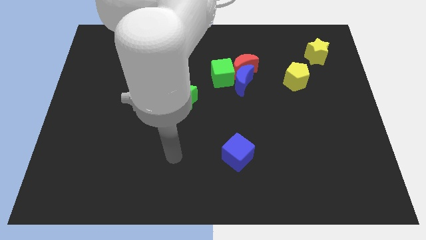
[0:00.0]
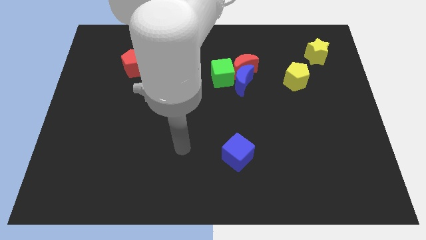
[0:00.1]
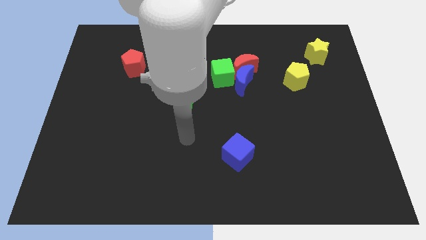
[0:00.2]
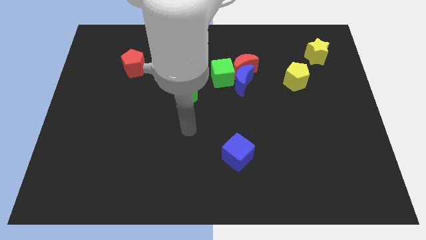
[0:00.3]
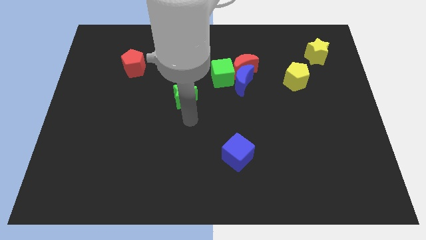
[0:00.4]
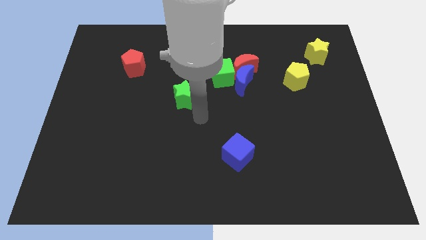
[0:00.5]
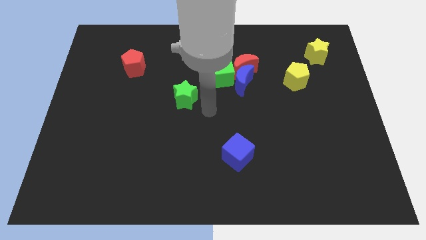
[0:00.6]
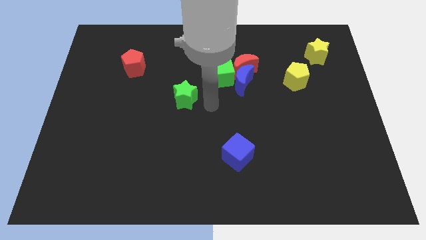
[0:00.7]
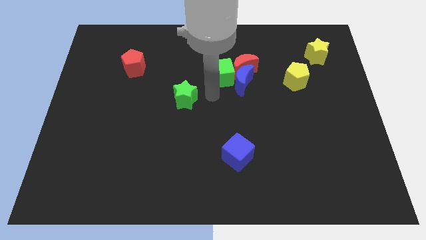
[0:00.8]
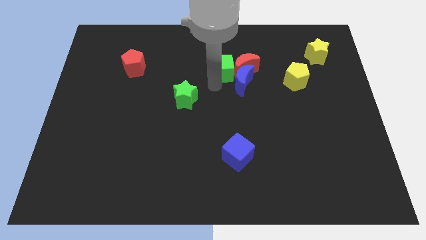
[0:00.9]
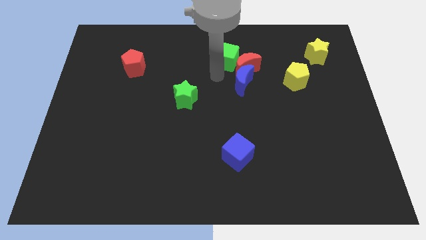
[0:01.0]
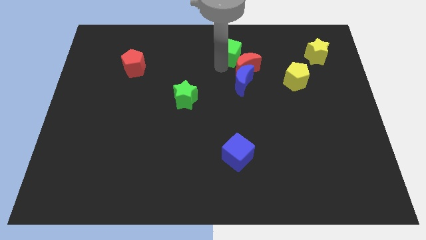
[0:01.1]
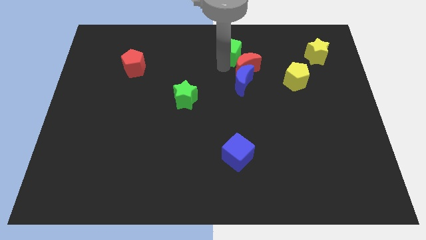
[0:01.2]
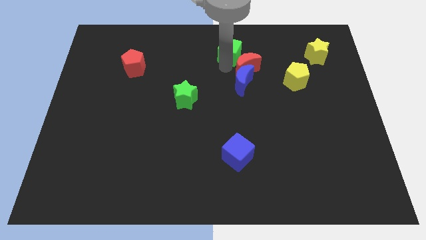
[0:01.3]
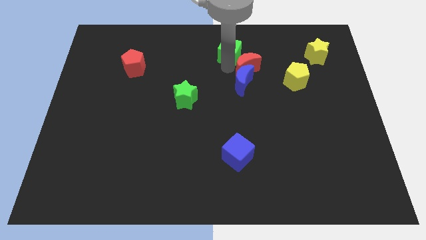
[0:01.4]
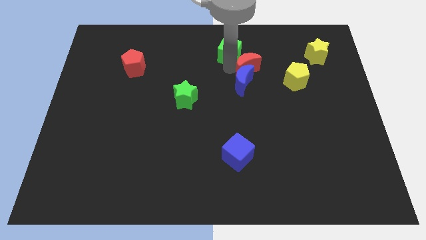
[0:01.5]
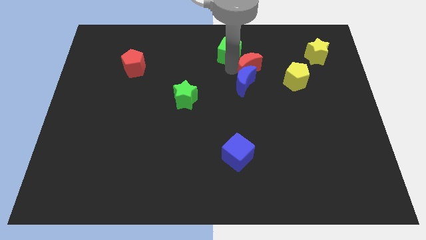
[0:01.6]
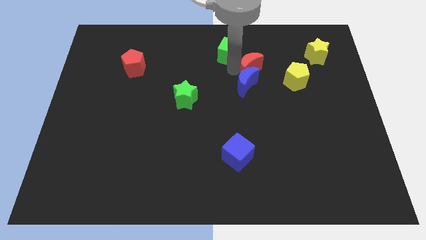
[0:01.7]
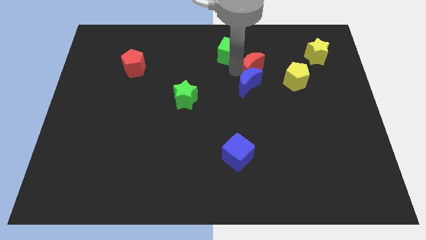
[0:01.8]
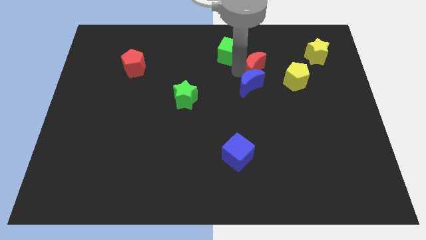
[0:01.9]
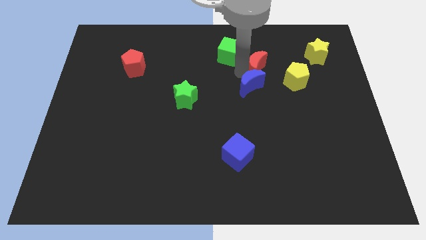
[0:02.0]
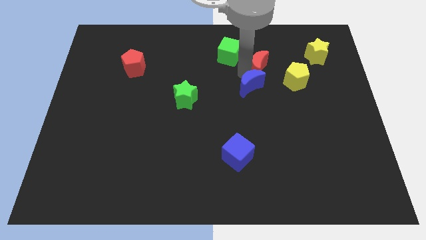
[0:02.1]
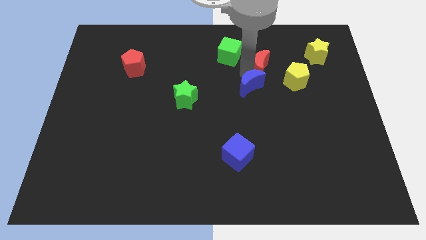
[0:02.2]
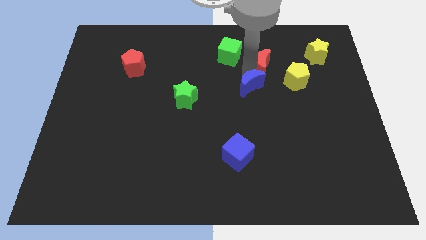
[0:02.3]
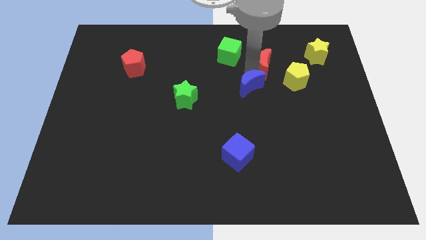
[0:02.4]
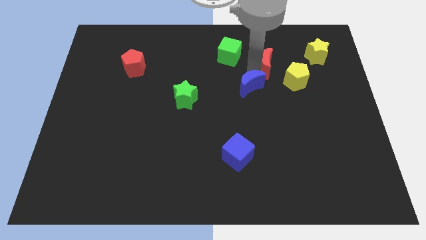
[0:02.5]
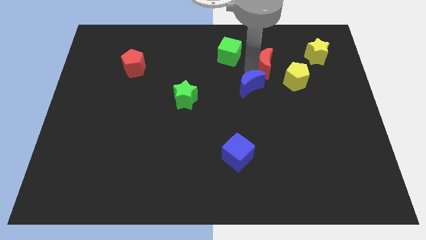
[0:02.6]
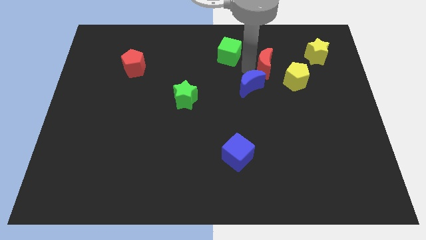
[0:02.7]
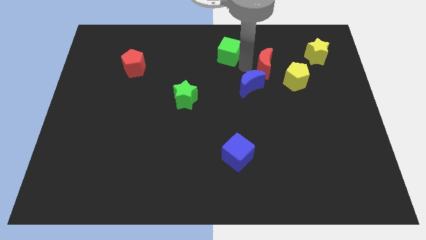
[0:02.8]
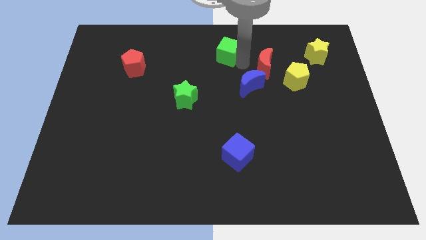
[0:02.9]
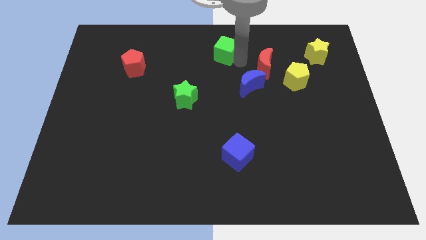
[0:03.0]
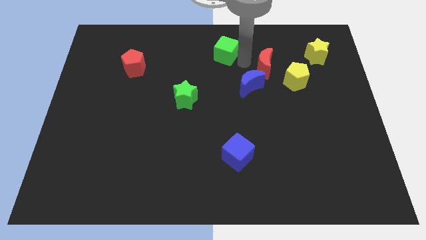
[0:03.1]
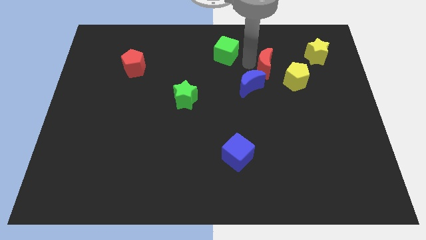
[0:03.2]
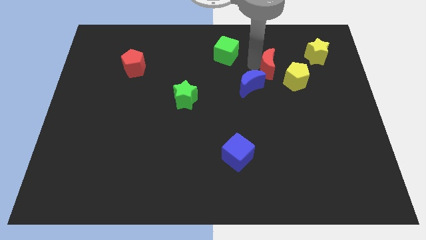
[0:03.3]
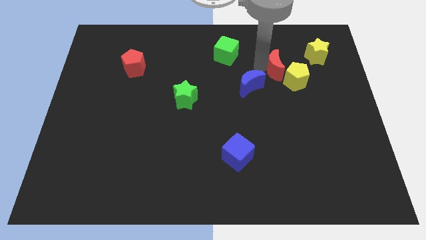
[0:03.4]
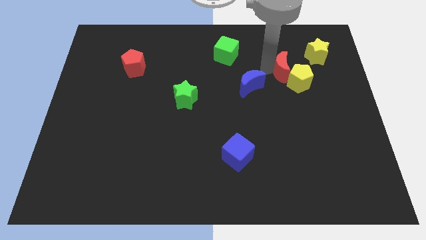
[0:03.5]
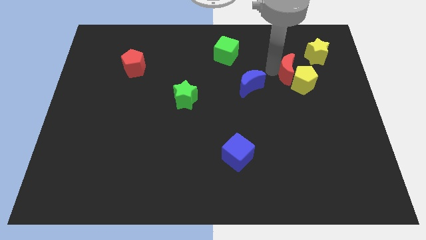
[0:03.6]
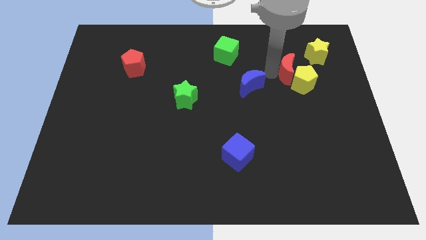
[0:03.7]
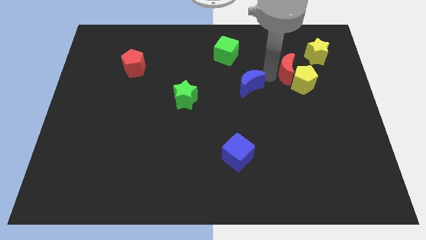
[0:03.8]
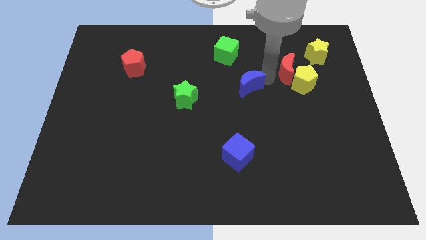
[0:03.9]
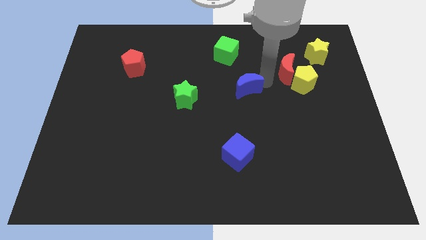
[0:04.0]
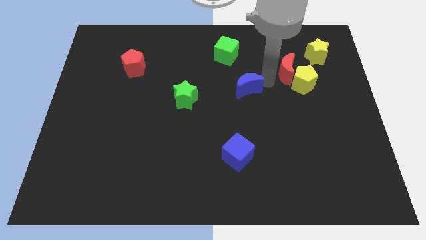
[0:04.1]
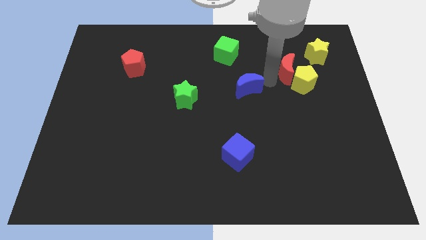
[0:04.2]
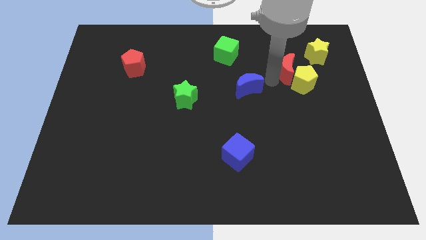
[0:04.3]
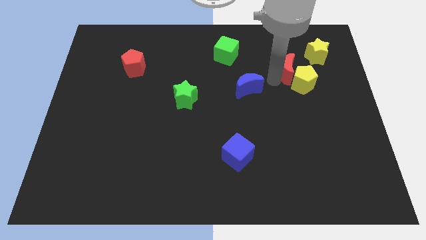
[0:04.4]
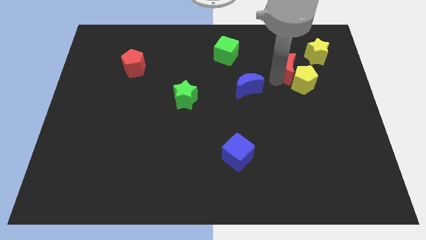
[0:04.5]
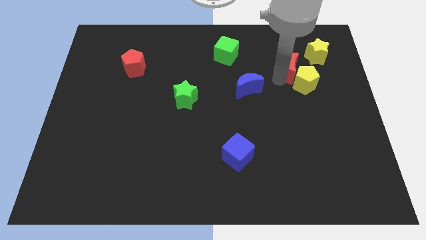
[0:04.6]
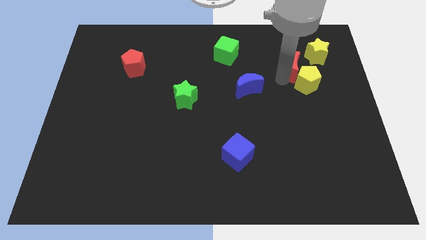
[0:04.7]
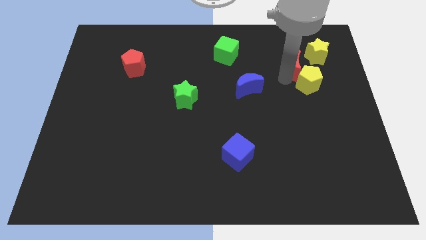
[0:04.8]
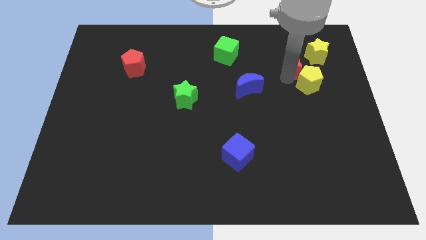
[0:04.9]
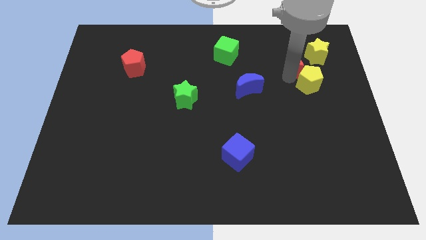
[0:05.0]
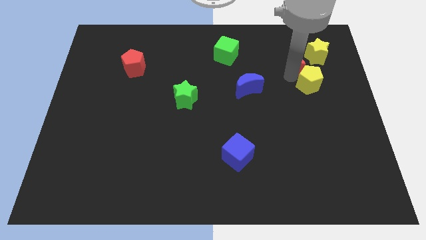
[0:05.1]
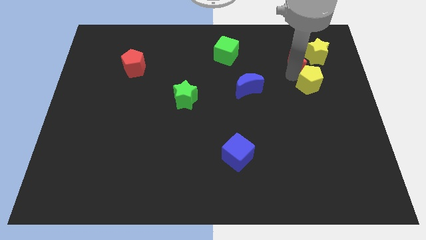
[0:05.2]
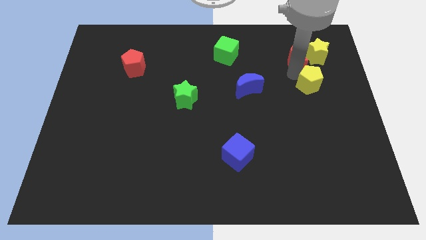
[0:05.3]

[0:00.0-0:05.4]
put the red moon towards the yellow star

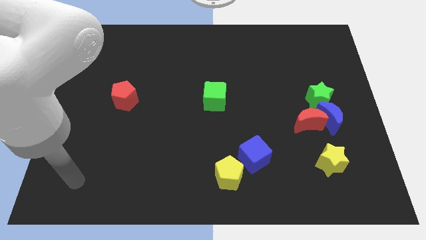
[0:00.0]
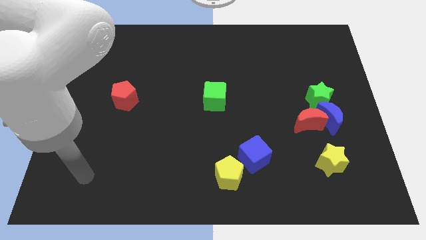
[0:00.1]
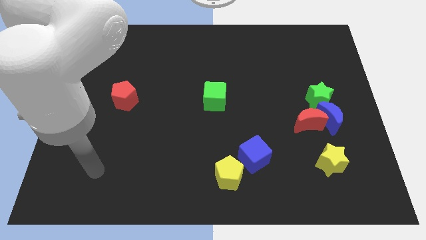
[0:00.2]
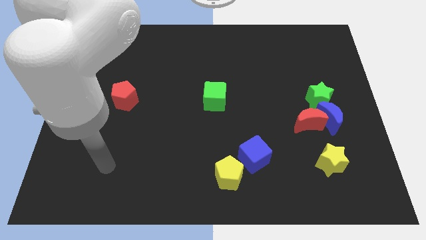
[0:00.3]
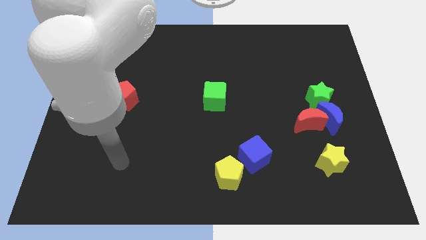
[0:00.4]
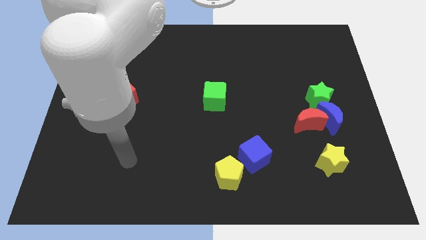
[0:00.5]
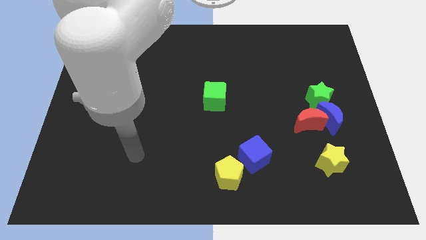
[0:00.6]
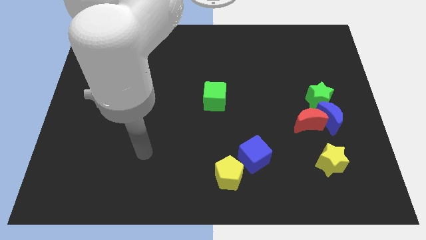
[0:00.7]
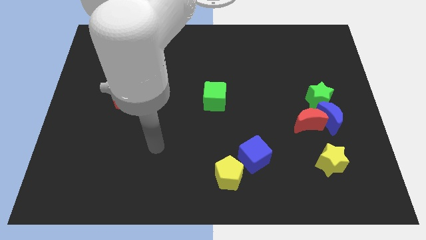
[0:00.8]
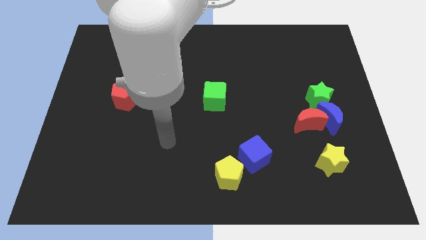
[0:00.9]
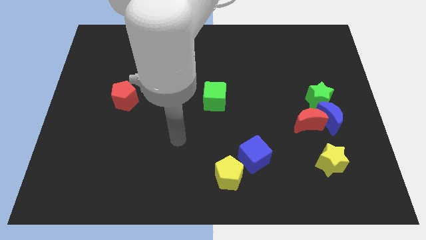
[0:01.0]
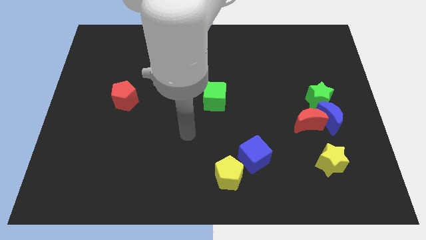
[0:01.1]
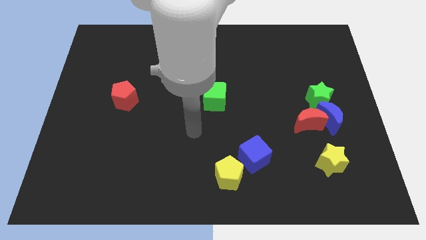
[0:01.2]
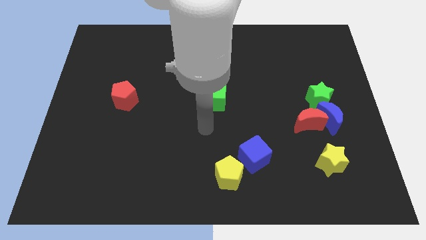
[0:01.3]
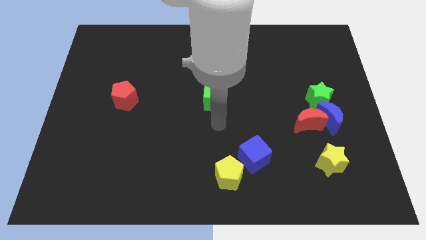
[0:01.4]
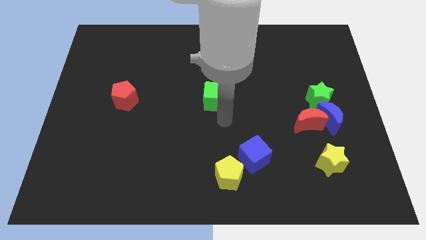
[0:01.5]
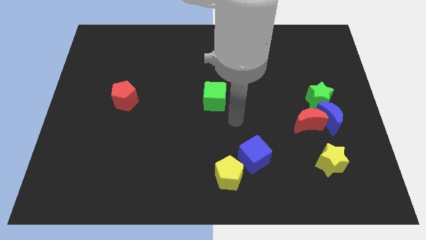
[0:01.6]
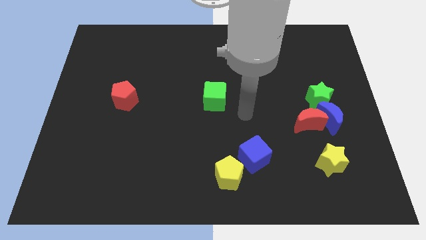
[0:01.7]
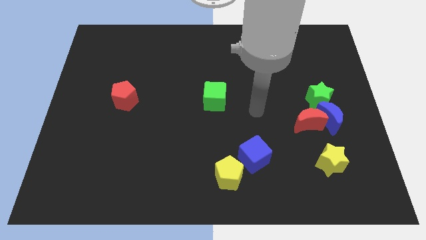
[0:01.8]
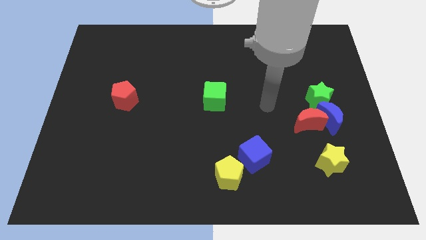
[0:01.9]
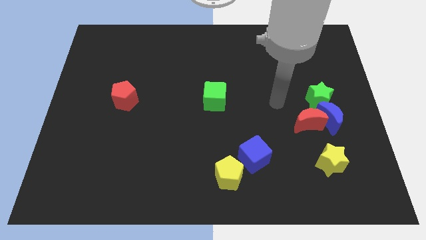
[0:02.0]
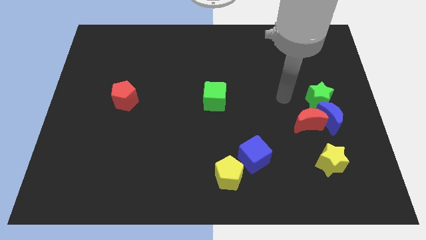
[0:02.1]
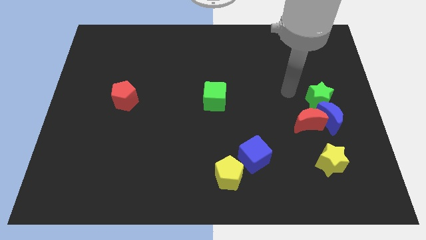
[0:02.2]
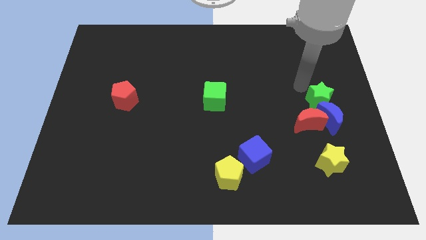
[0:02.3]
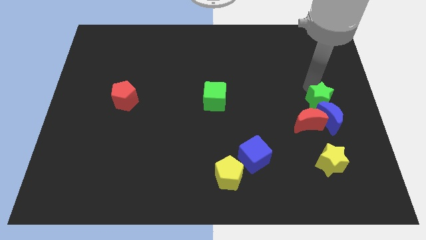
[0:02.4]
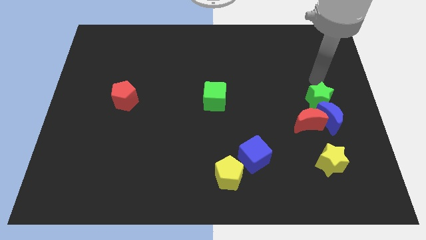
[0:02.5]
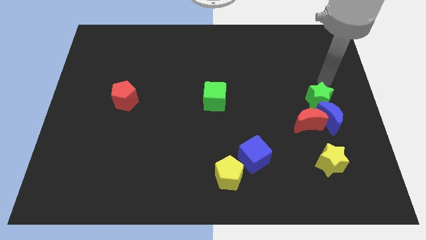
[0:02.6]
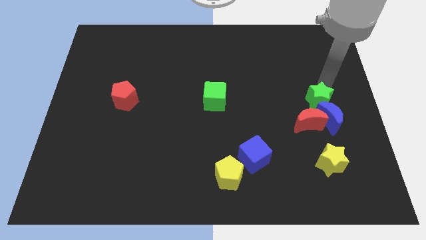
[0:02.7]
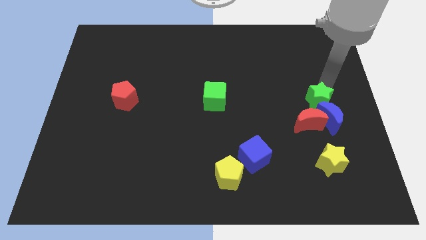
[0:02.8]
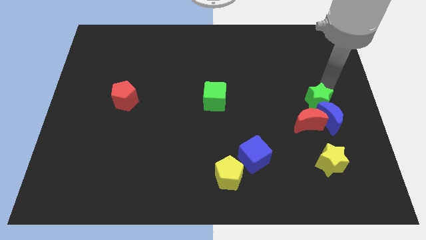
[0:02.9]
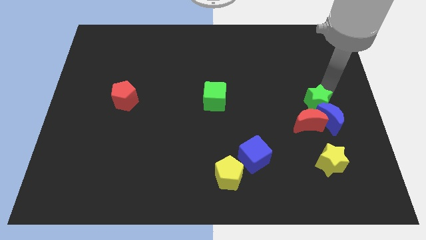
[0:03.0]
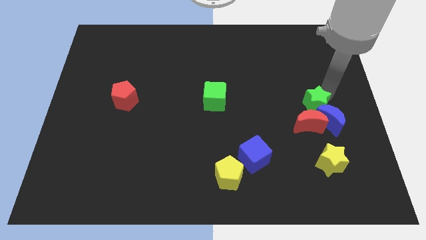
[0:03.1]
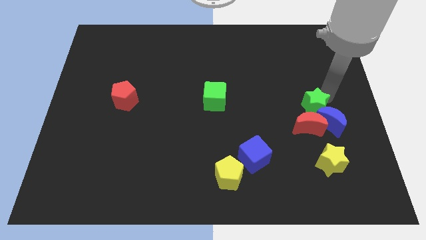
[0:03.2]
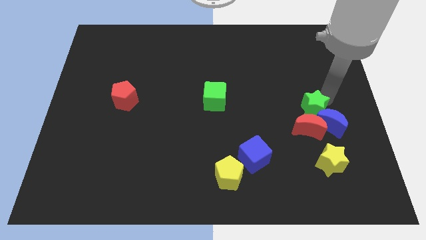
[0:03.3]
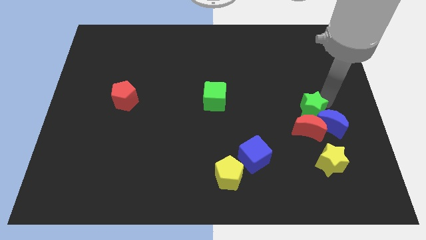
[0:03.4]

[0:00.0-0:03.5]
slide the green star close to the red moon
